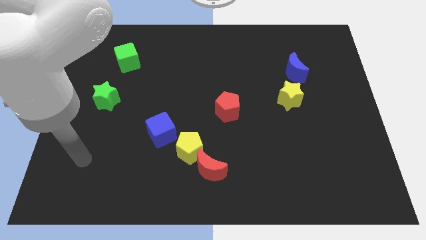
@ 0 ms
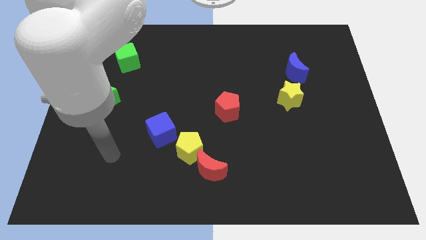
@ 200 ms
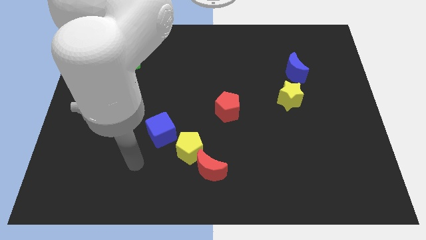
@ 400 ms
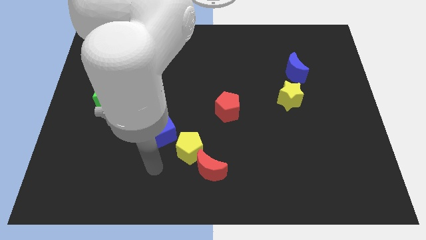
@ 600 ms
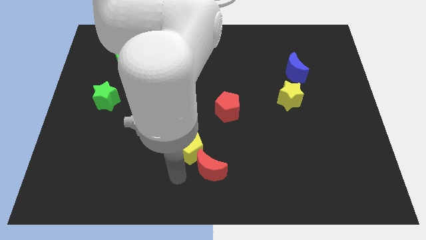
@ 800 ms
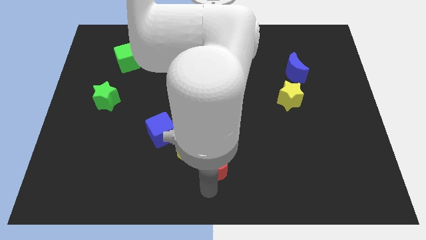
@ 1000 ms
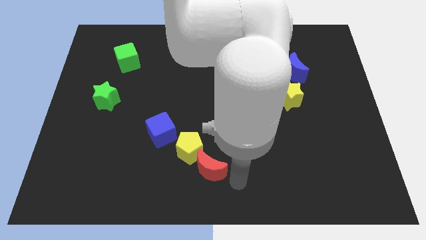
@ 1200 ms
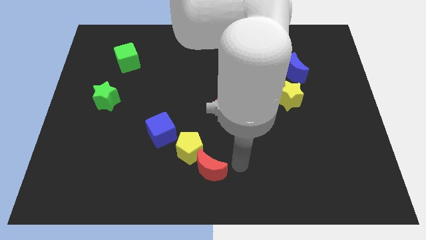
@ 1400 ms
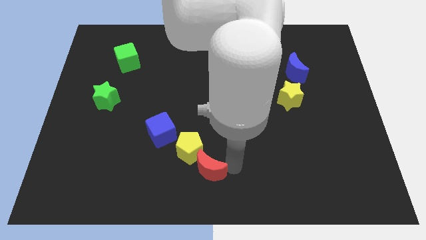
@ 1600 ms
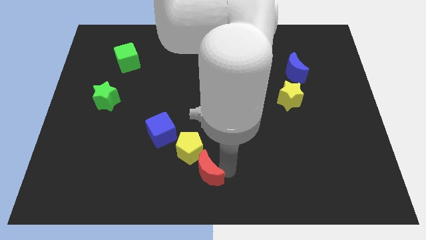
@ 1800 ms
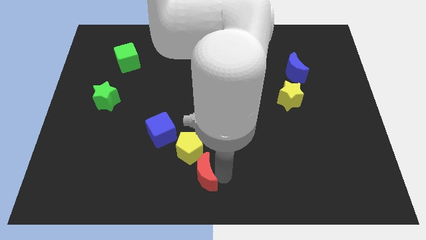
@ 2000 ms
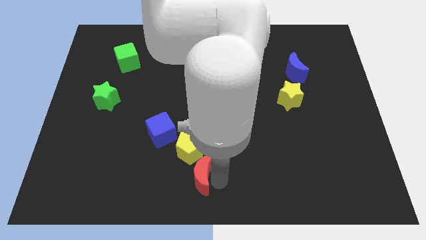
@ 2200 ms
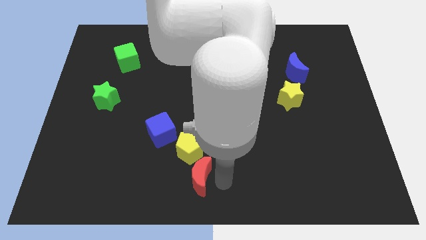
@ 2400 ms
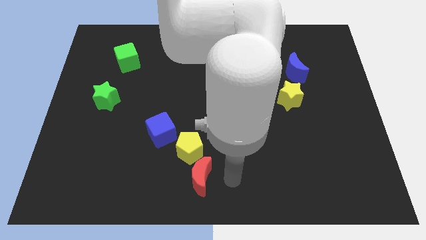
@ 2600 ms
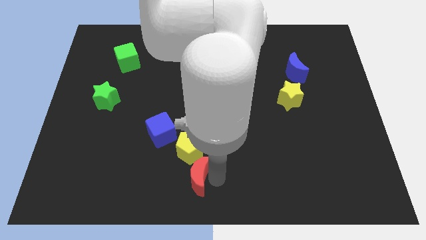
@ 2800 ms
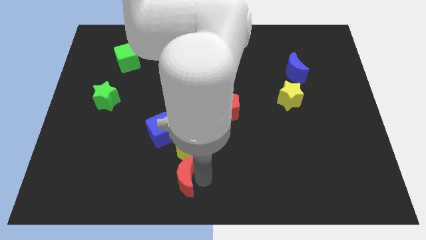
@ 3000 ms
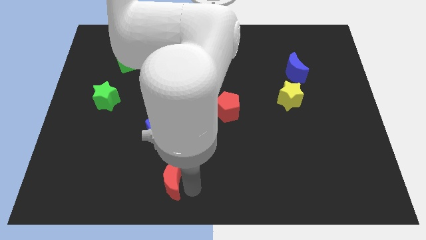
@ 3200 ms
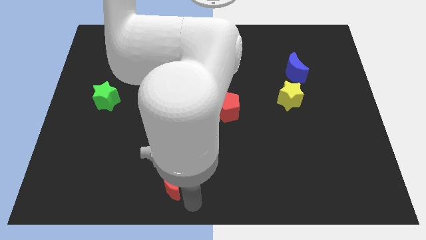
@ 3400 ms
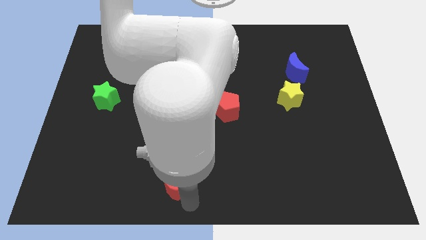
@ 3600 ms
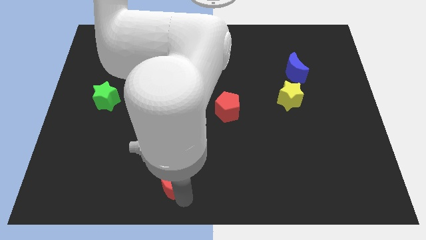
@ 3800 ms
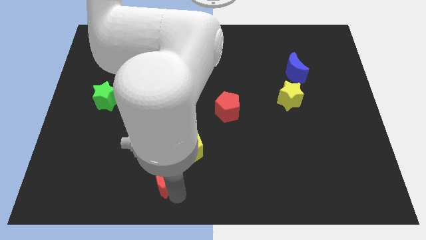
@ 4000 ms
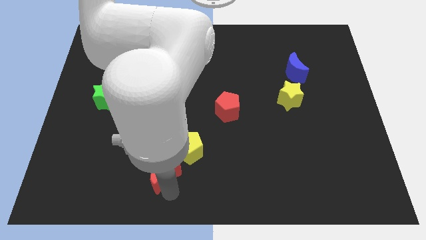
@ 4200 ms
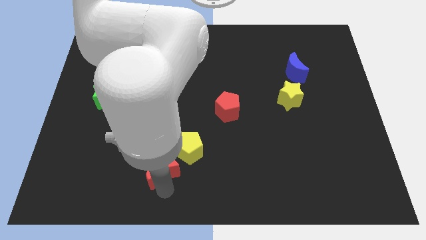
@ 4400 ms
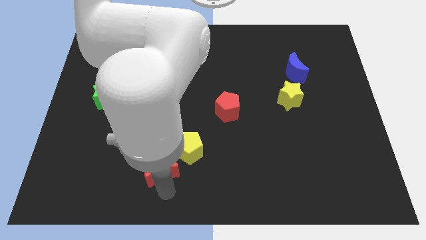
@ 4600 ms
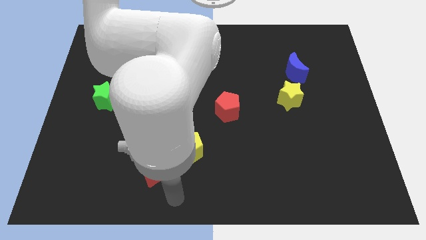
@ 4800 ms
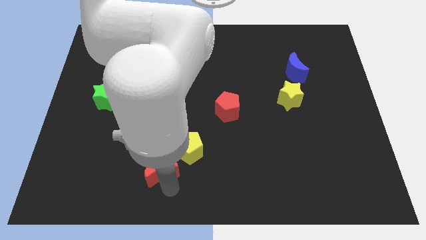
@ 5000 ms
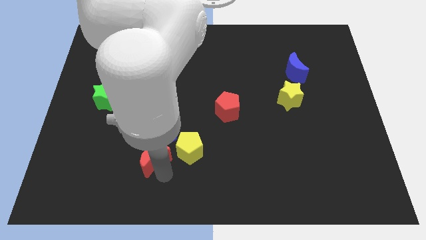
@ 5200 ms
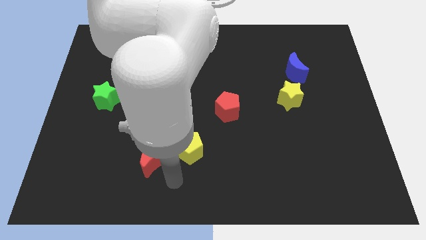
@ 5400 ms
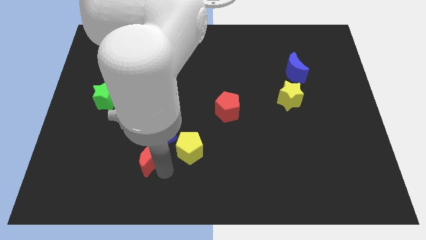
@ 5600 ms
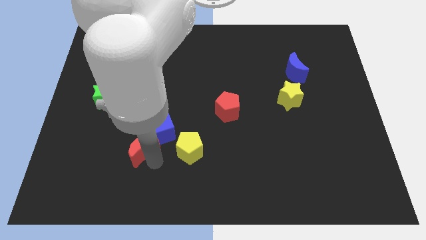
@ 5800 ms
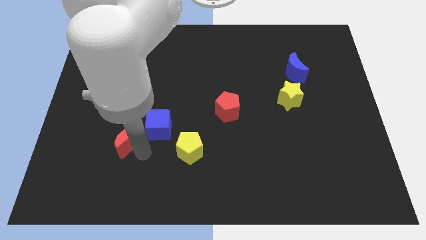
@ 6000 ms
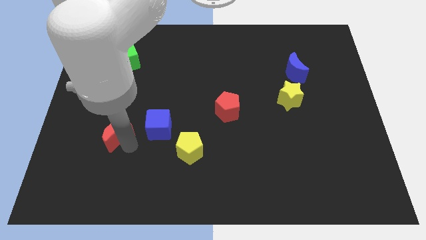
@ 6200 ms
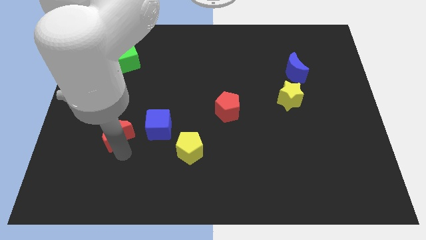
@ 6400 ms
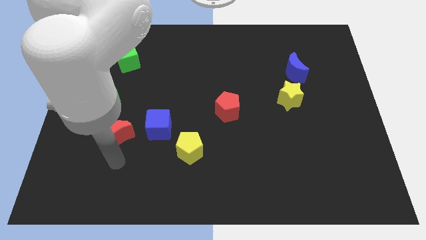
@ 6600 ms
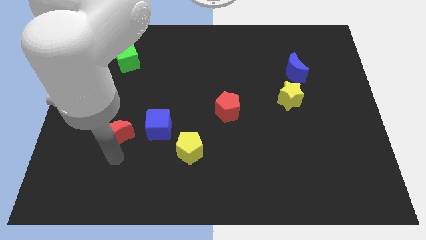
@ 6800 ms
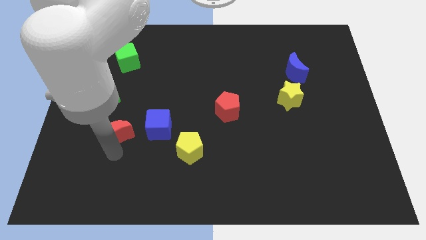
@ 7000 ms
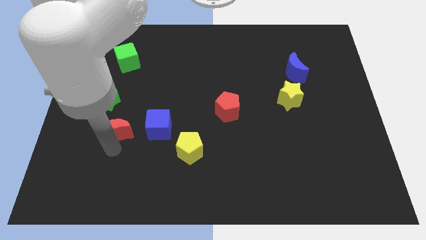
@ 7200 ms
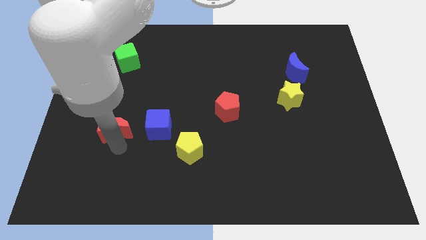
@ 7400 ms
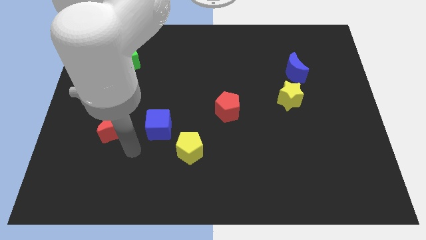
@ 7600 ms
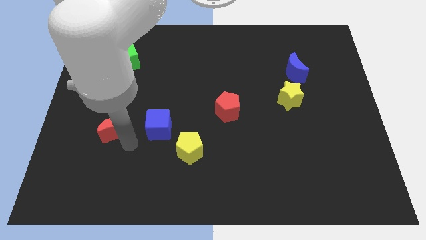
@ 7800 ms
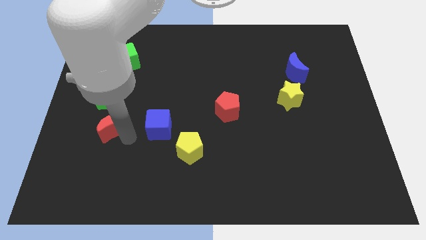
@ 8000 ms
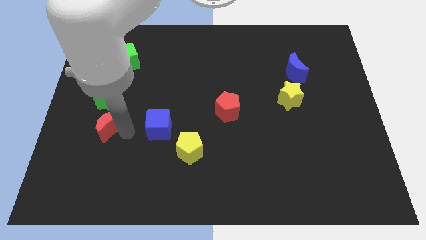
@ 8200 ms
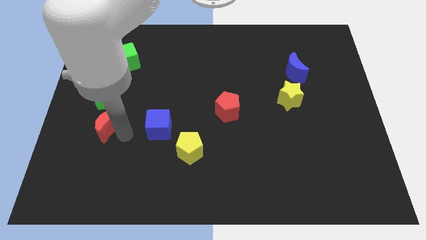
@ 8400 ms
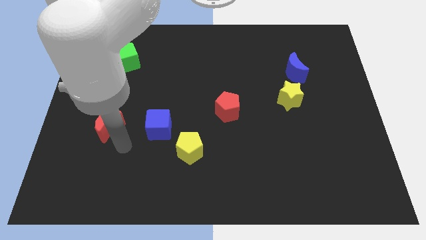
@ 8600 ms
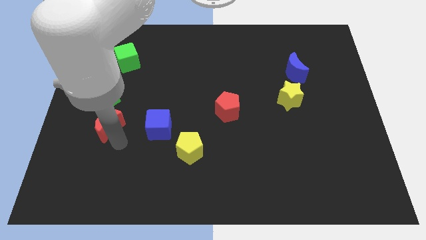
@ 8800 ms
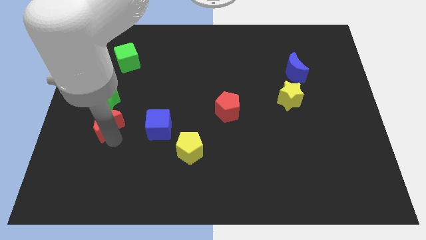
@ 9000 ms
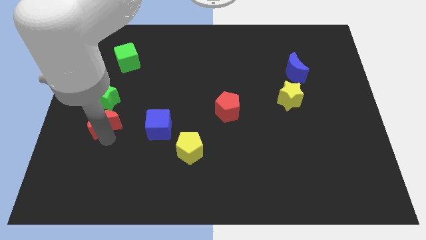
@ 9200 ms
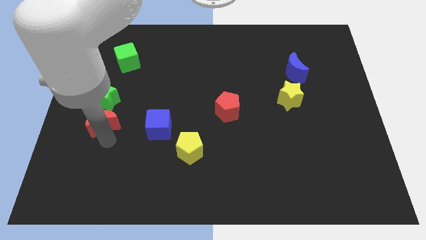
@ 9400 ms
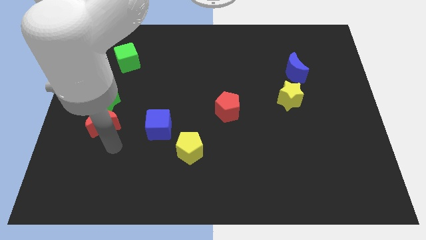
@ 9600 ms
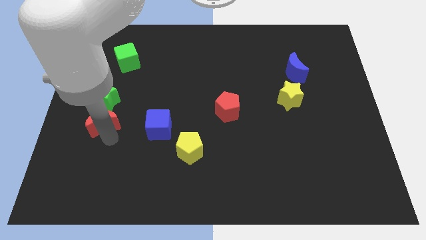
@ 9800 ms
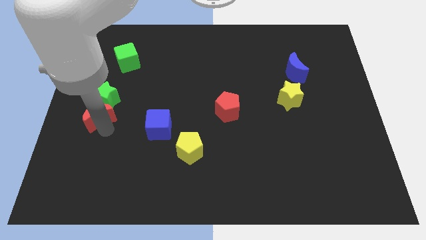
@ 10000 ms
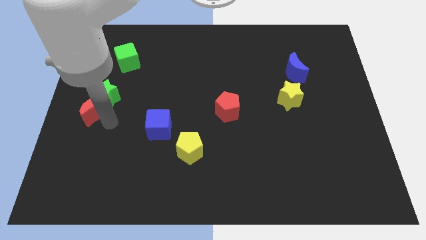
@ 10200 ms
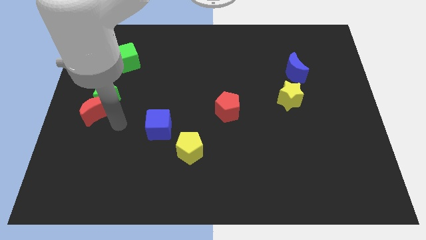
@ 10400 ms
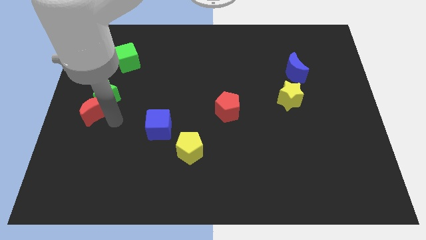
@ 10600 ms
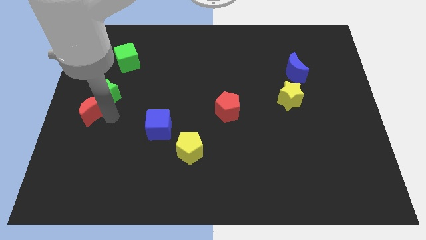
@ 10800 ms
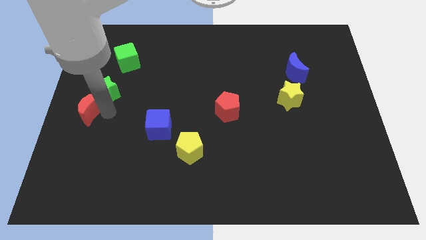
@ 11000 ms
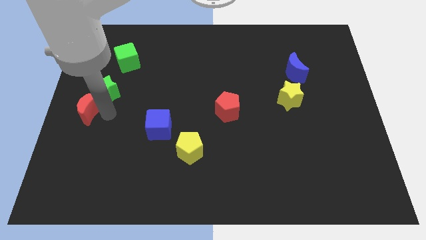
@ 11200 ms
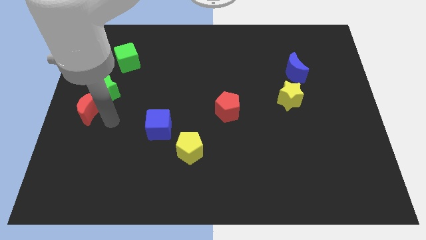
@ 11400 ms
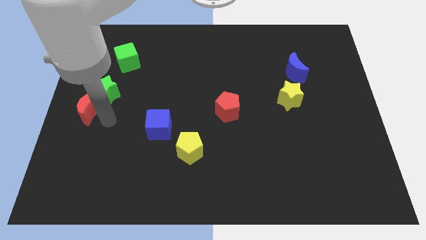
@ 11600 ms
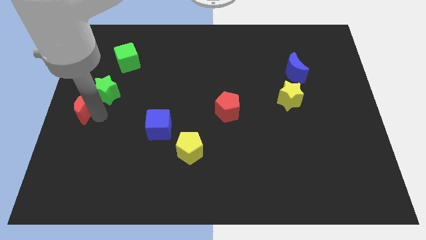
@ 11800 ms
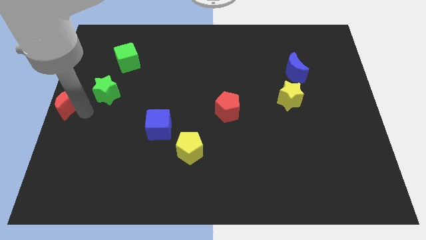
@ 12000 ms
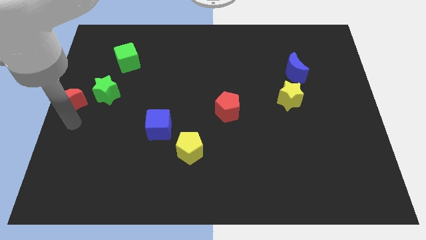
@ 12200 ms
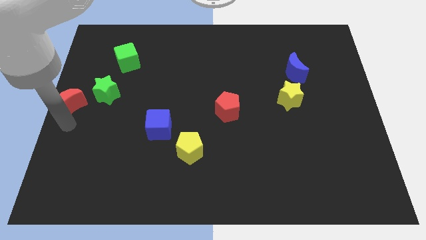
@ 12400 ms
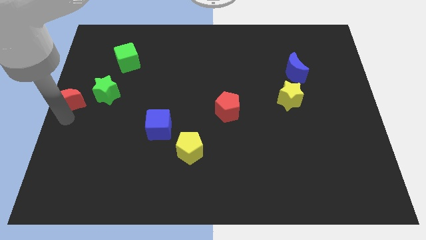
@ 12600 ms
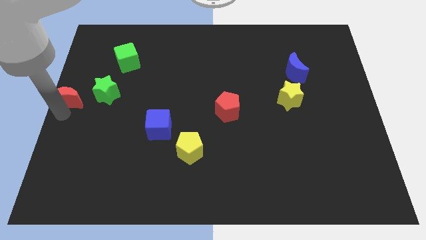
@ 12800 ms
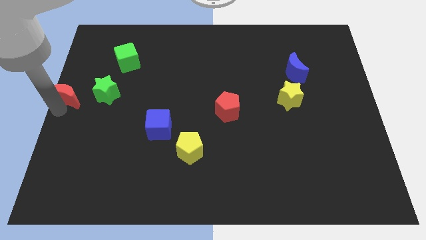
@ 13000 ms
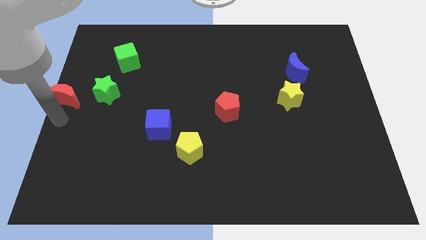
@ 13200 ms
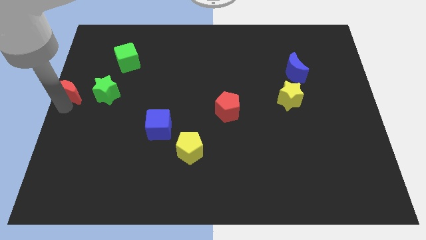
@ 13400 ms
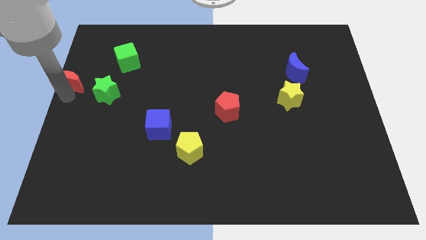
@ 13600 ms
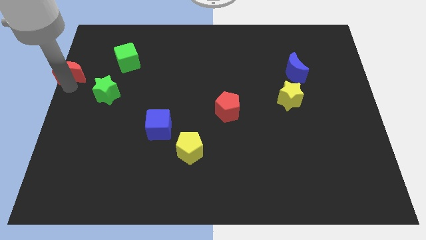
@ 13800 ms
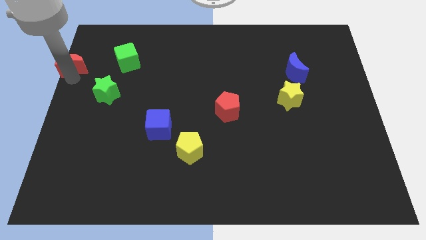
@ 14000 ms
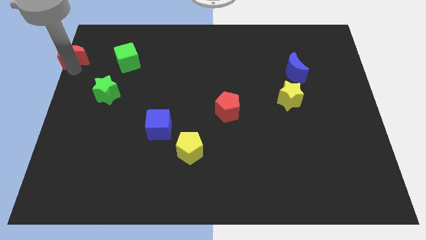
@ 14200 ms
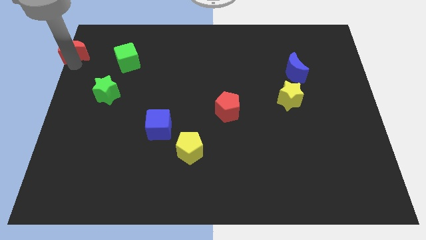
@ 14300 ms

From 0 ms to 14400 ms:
slide the red moon to the top left of the board

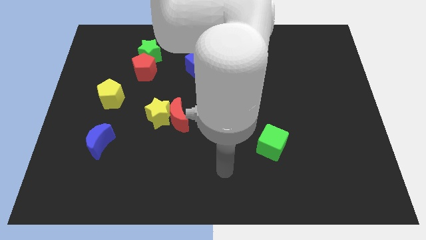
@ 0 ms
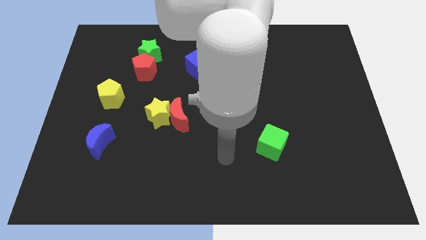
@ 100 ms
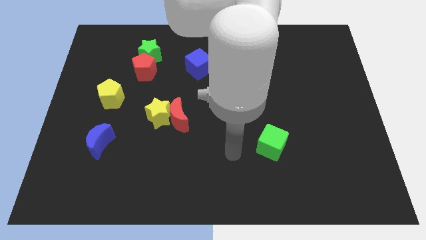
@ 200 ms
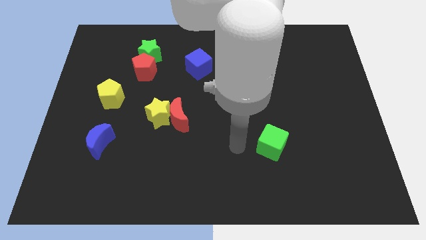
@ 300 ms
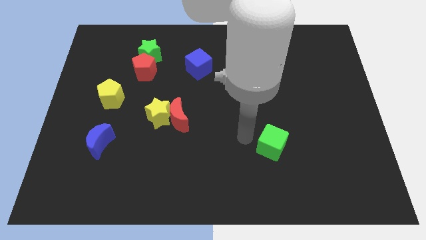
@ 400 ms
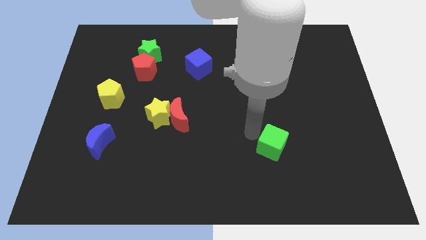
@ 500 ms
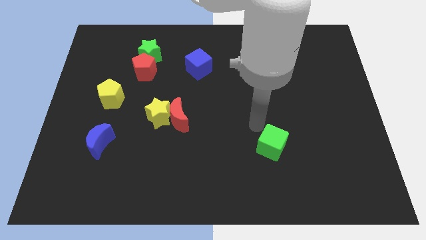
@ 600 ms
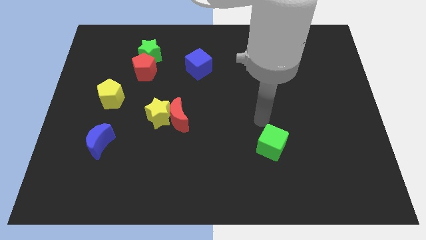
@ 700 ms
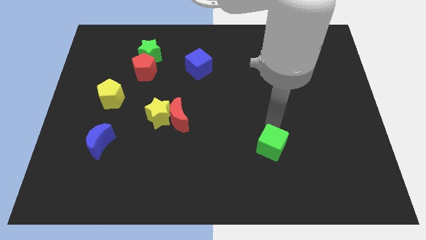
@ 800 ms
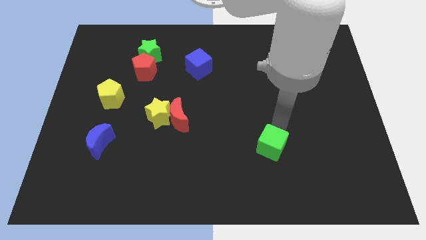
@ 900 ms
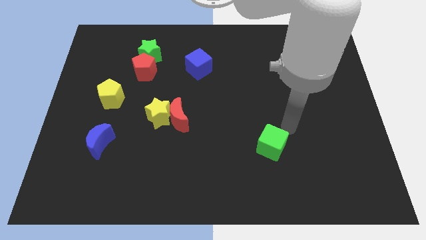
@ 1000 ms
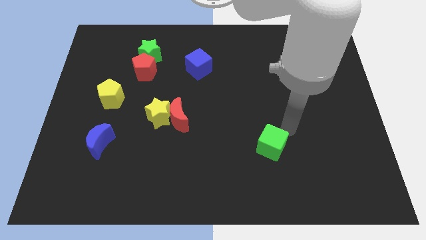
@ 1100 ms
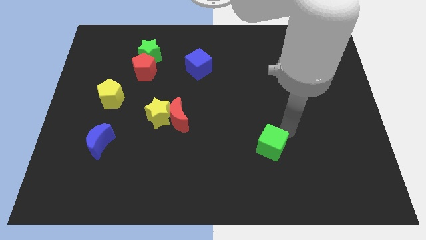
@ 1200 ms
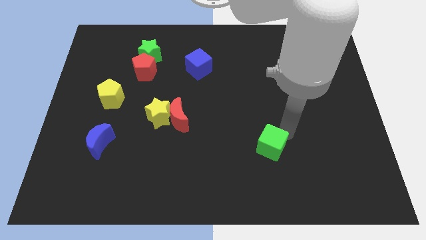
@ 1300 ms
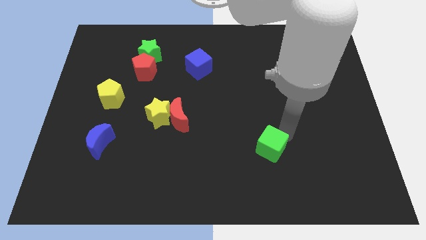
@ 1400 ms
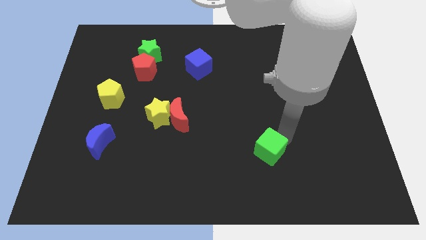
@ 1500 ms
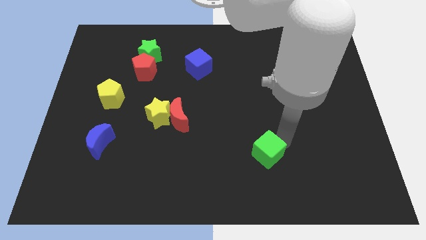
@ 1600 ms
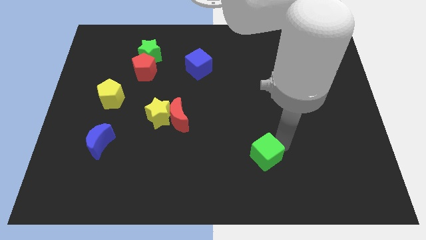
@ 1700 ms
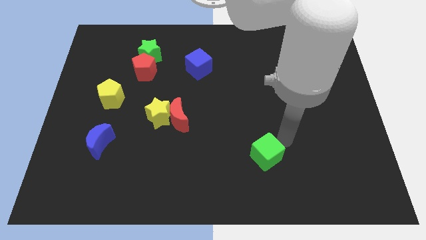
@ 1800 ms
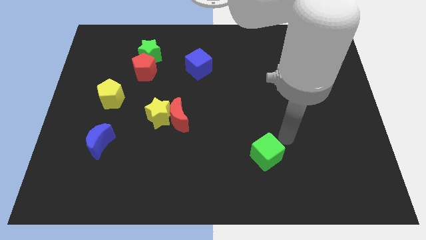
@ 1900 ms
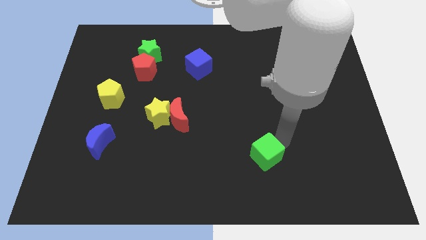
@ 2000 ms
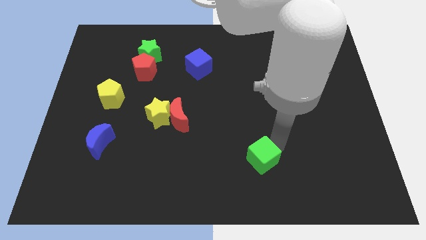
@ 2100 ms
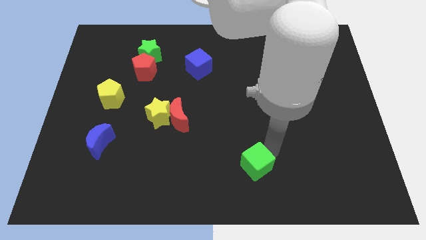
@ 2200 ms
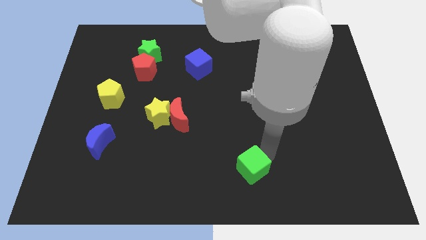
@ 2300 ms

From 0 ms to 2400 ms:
push the green cube to the bottom side
